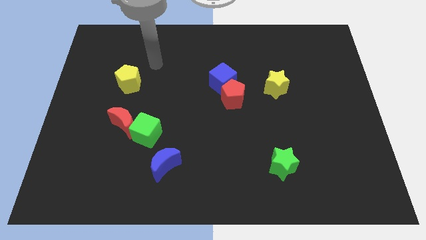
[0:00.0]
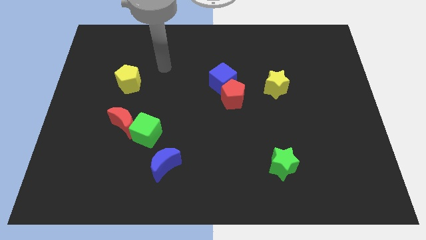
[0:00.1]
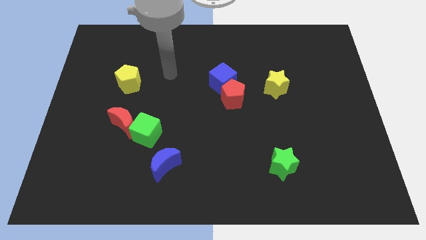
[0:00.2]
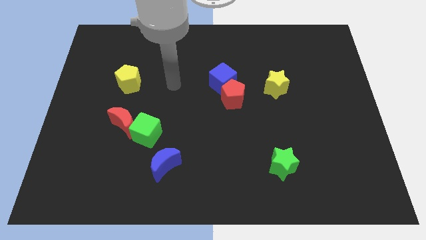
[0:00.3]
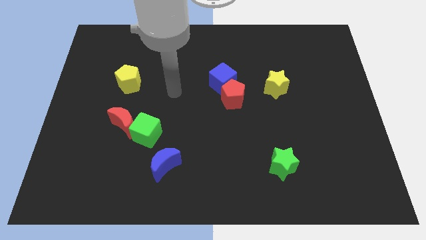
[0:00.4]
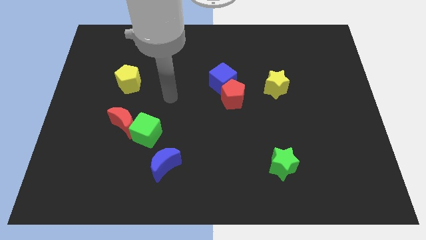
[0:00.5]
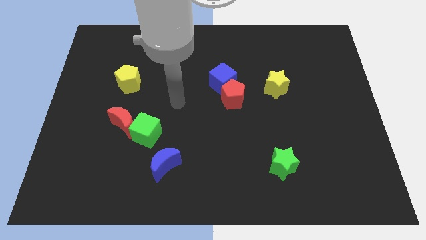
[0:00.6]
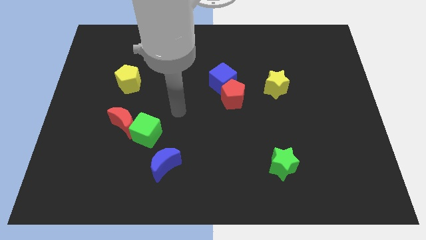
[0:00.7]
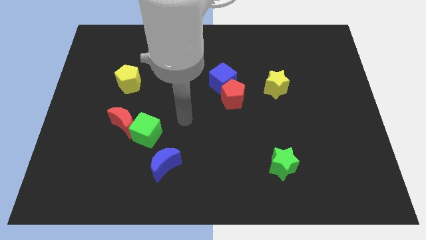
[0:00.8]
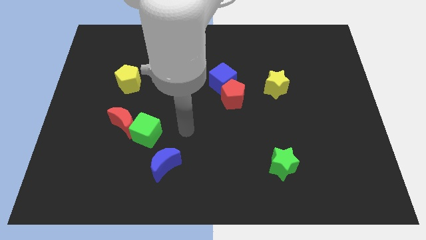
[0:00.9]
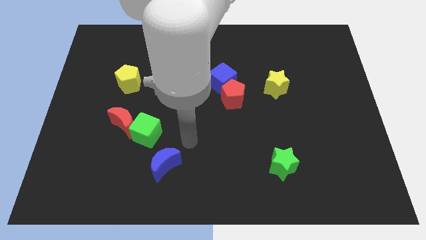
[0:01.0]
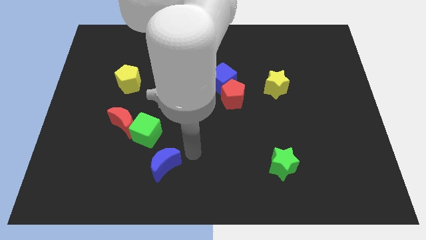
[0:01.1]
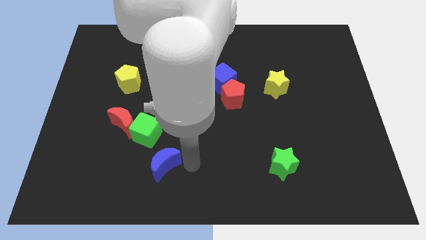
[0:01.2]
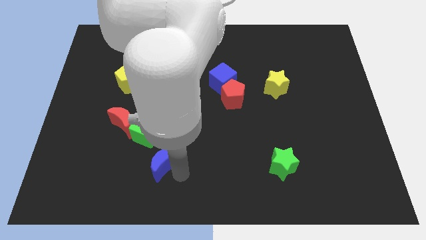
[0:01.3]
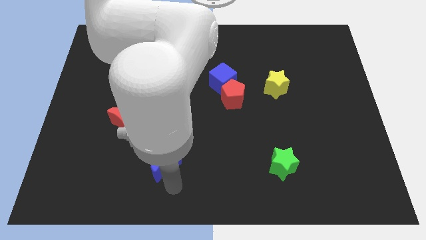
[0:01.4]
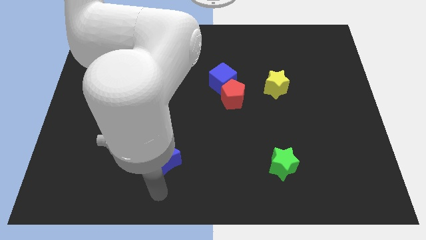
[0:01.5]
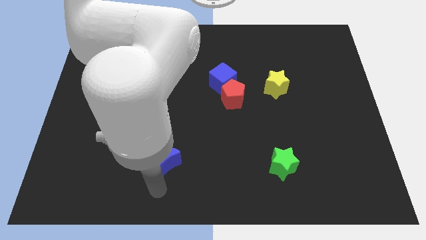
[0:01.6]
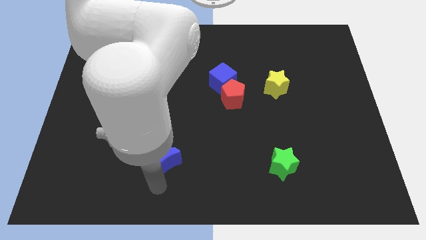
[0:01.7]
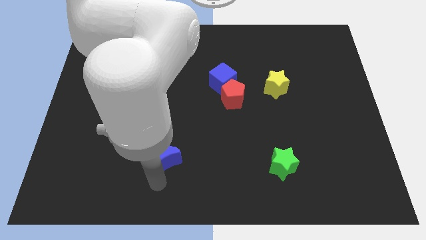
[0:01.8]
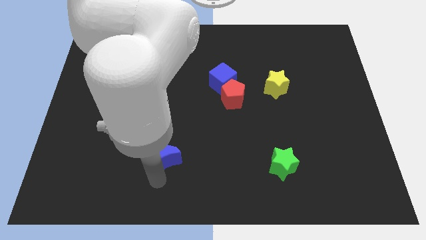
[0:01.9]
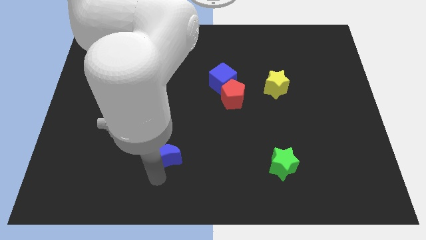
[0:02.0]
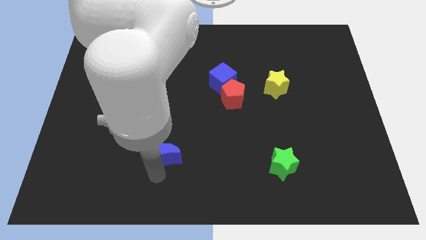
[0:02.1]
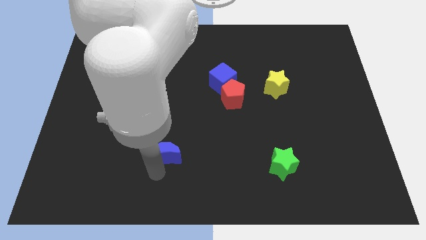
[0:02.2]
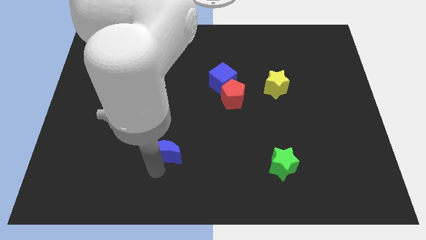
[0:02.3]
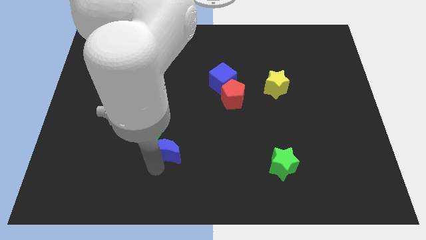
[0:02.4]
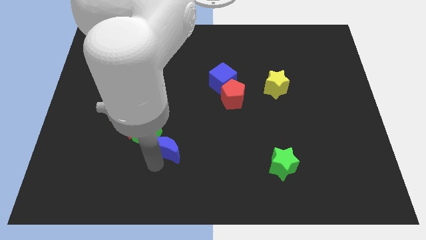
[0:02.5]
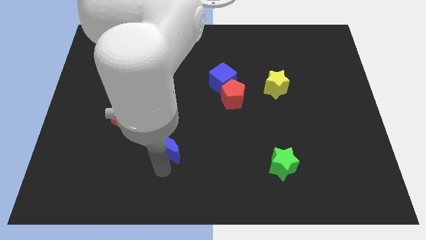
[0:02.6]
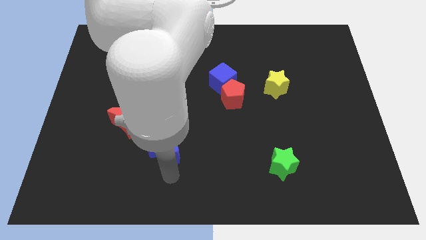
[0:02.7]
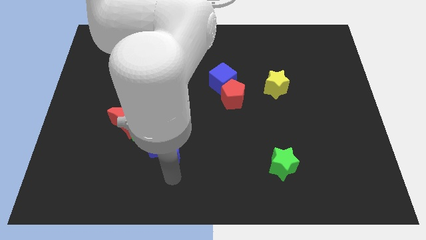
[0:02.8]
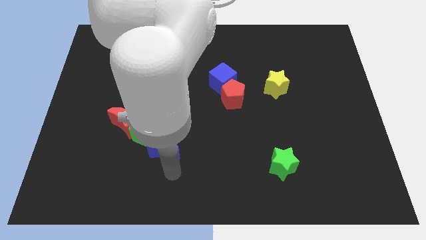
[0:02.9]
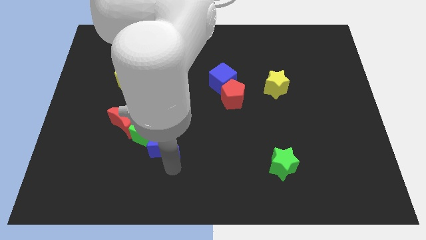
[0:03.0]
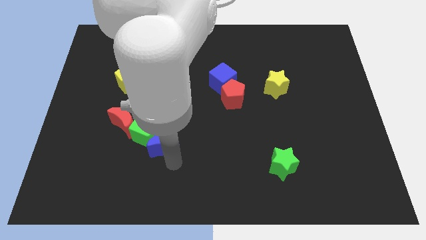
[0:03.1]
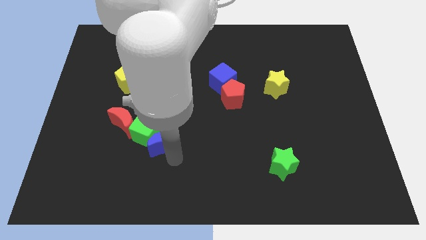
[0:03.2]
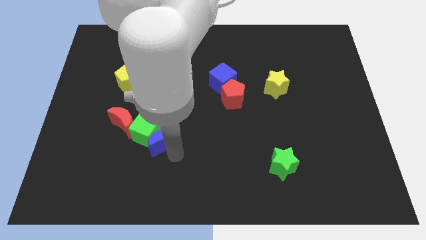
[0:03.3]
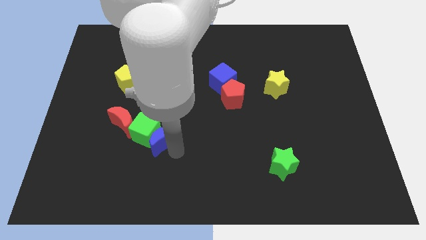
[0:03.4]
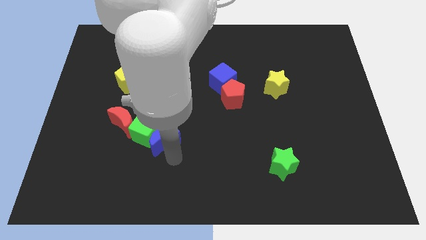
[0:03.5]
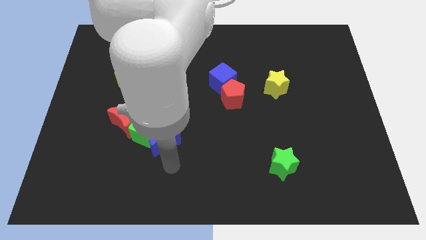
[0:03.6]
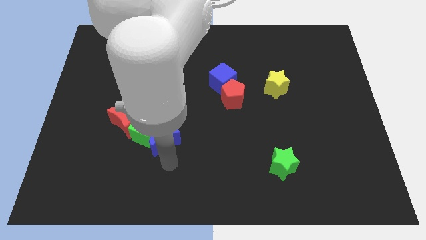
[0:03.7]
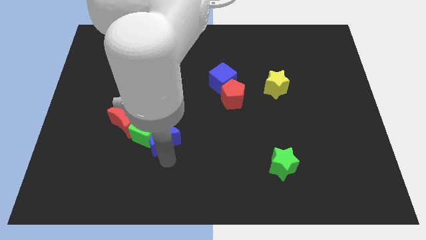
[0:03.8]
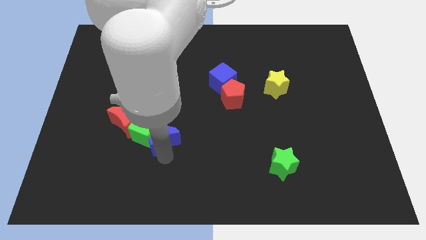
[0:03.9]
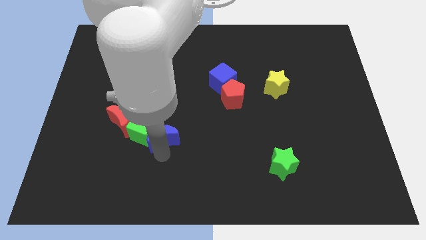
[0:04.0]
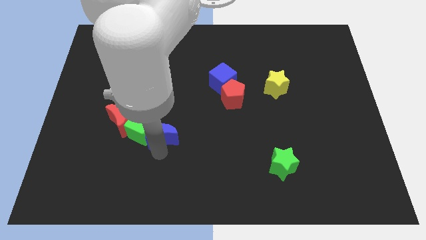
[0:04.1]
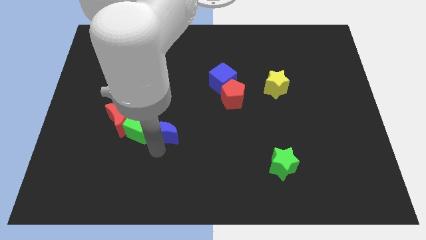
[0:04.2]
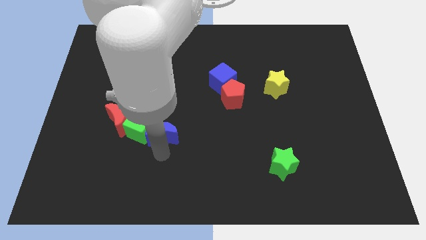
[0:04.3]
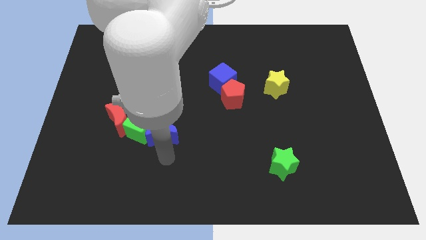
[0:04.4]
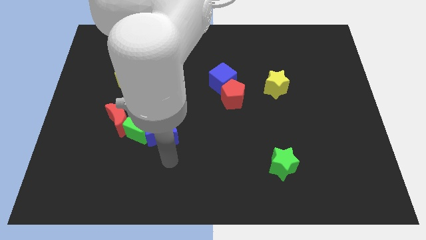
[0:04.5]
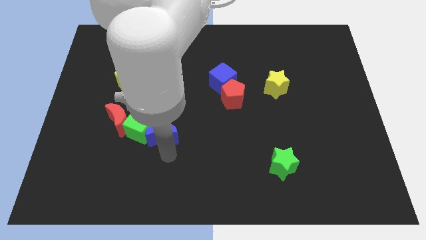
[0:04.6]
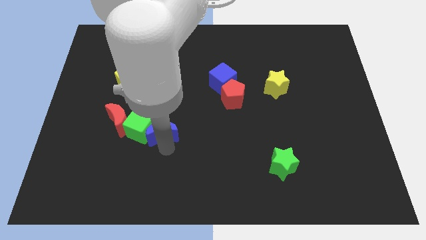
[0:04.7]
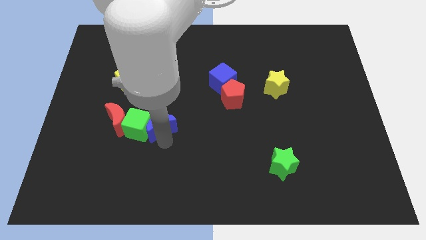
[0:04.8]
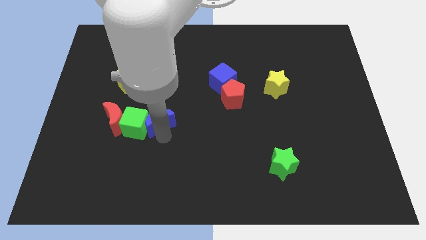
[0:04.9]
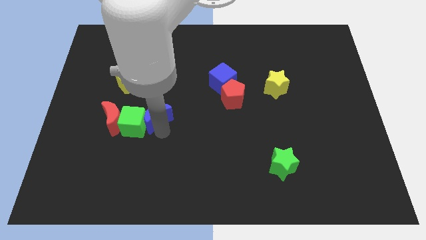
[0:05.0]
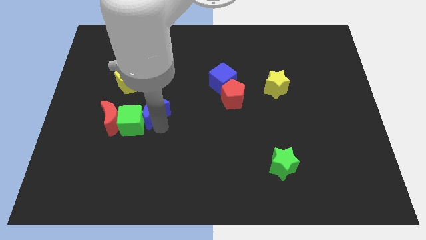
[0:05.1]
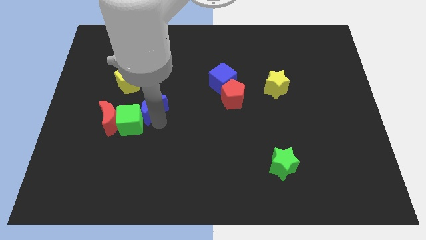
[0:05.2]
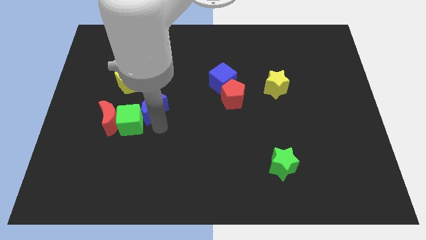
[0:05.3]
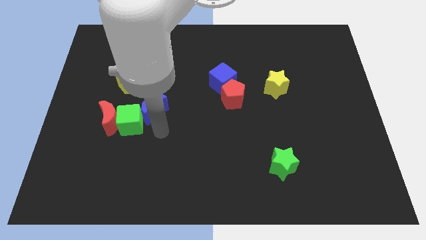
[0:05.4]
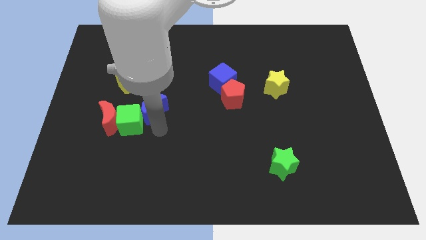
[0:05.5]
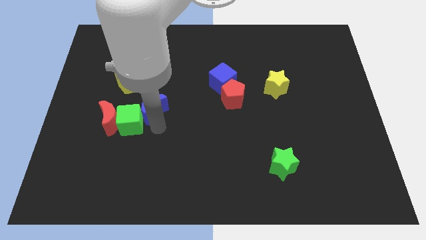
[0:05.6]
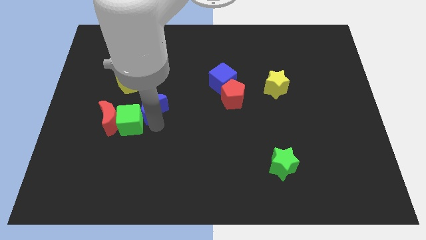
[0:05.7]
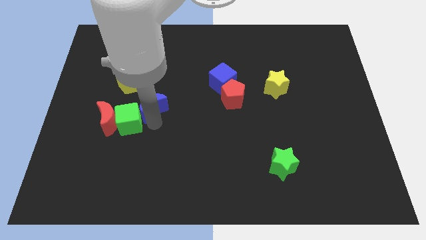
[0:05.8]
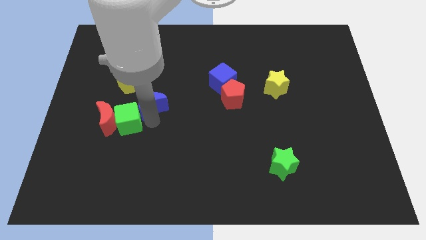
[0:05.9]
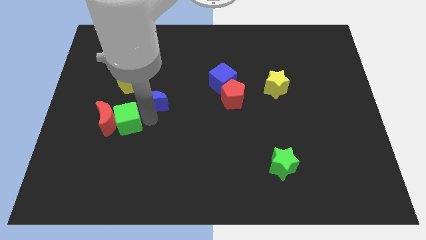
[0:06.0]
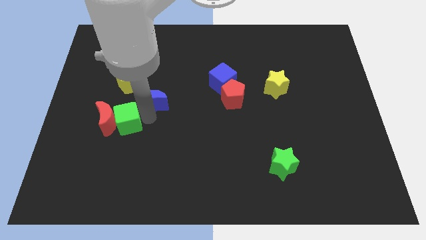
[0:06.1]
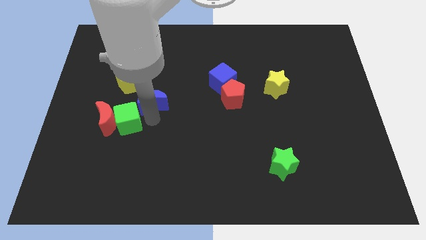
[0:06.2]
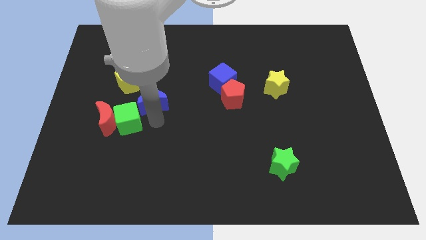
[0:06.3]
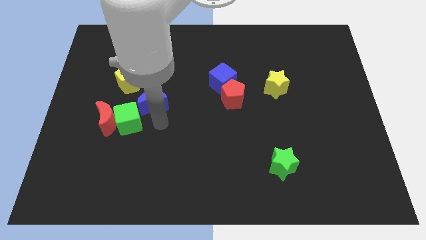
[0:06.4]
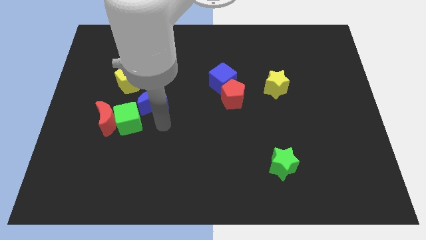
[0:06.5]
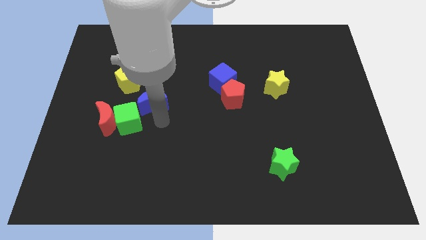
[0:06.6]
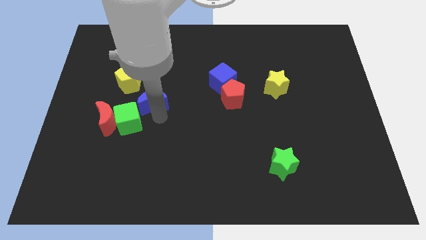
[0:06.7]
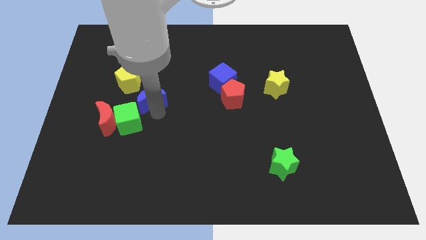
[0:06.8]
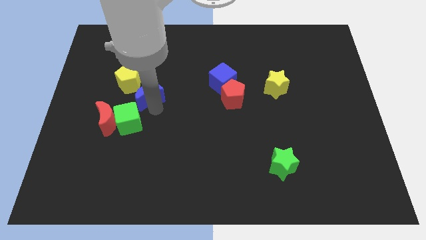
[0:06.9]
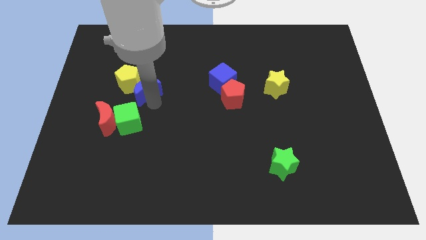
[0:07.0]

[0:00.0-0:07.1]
slide the blue moon towards the yellow pentagon
